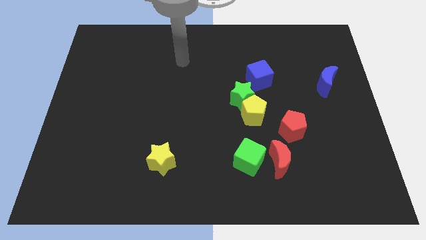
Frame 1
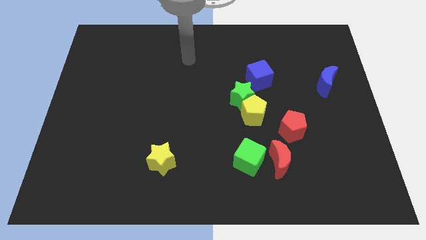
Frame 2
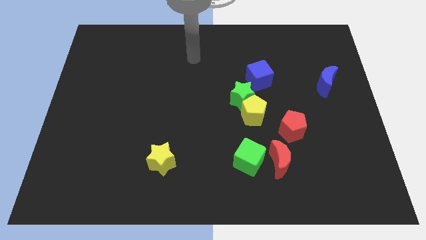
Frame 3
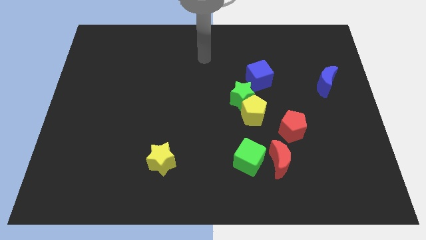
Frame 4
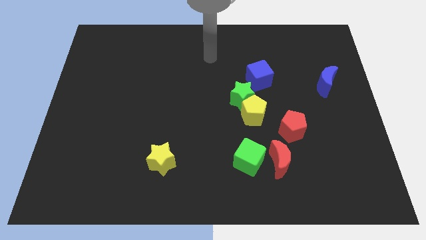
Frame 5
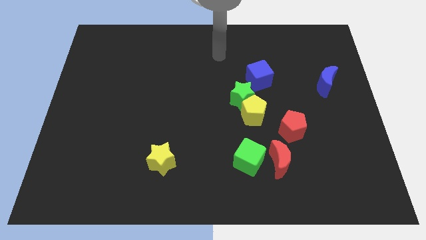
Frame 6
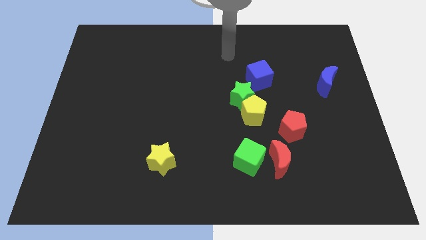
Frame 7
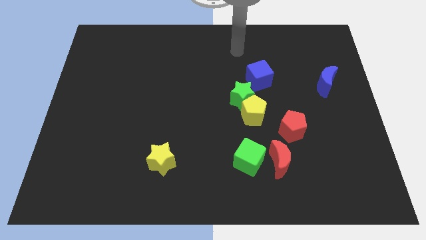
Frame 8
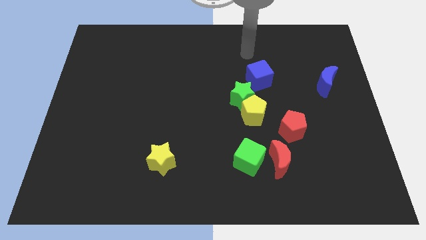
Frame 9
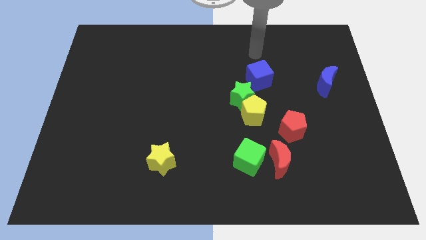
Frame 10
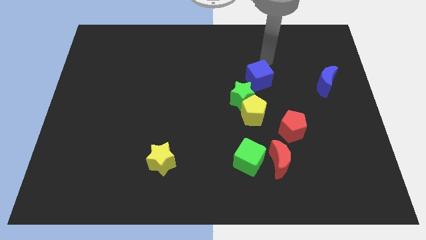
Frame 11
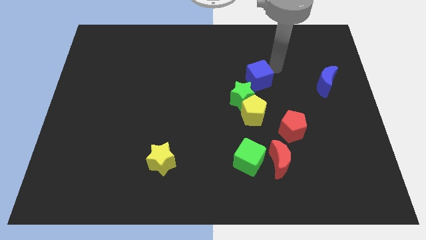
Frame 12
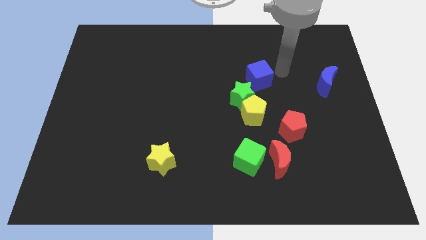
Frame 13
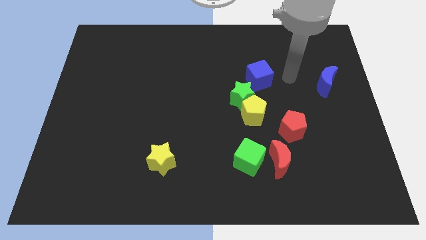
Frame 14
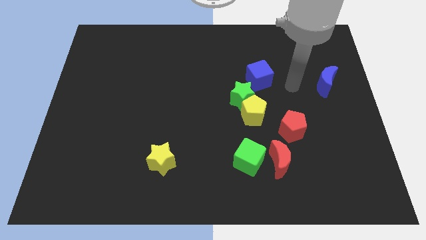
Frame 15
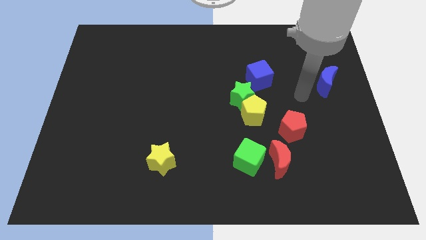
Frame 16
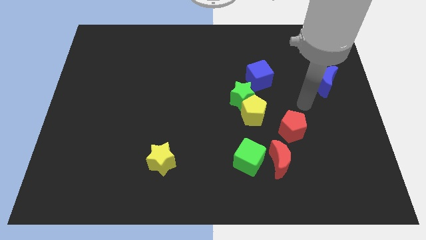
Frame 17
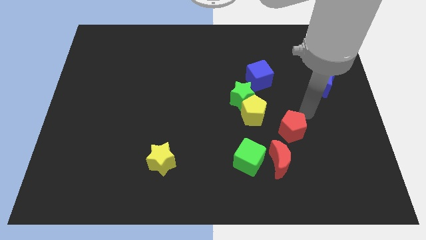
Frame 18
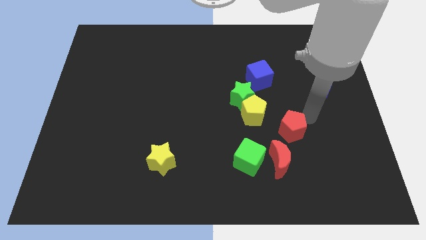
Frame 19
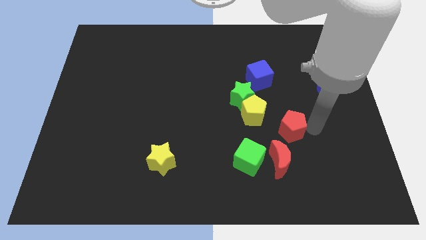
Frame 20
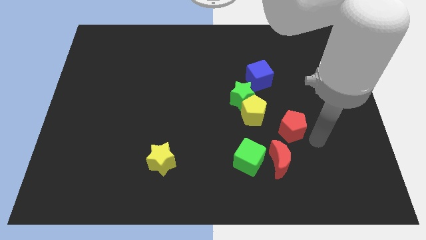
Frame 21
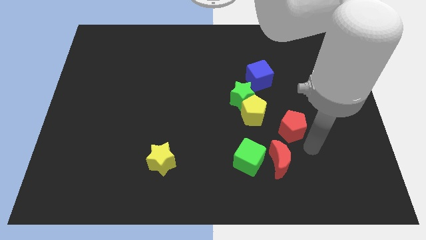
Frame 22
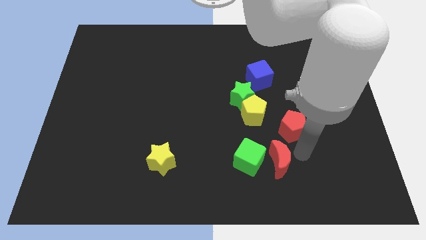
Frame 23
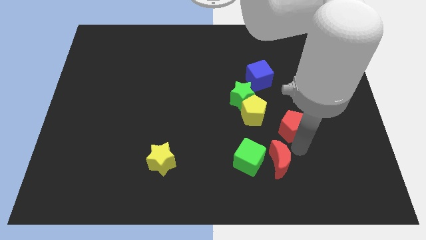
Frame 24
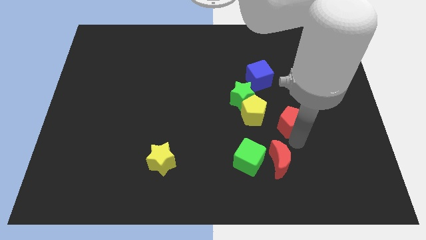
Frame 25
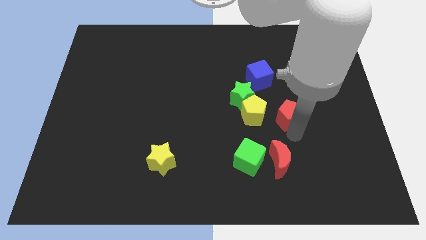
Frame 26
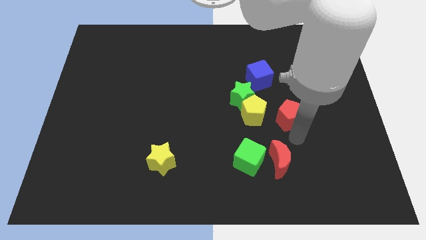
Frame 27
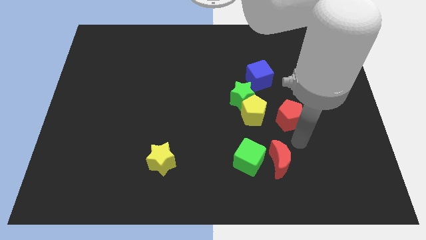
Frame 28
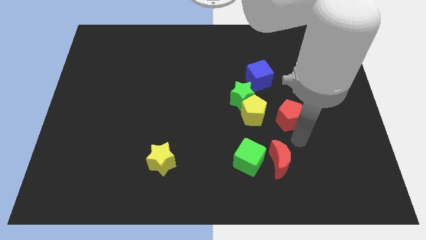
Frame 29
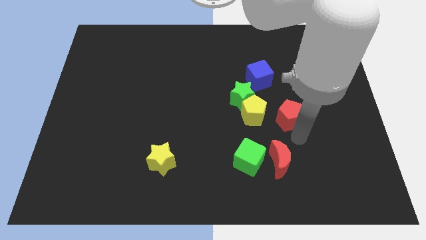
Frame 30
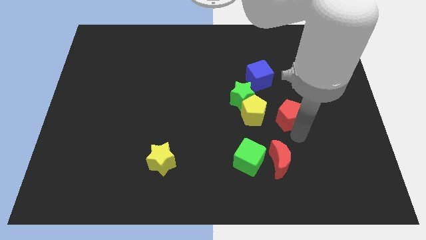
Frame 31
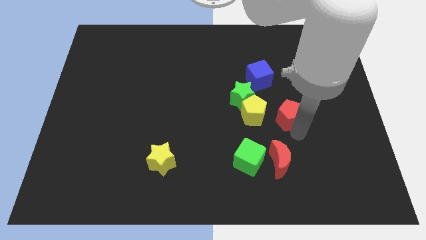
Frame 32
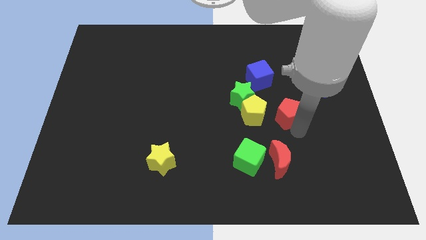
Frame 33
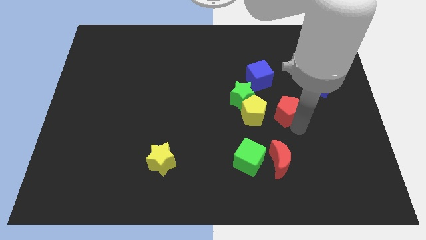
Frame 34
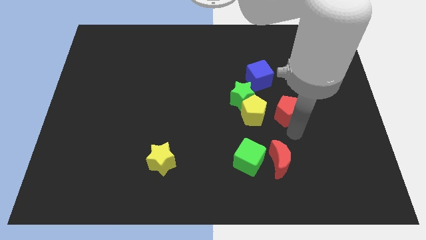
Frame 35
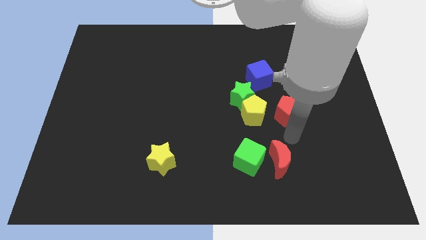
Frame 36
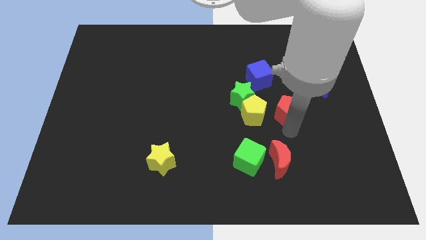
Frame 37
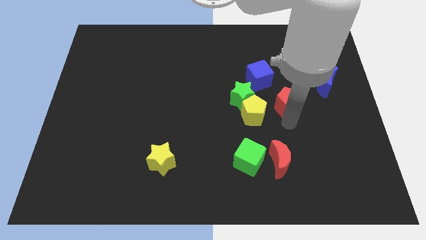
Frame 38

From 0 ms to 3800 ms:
move the red pentagon upwards a bit

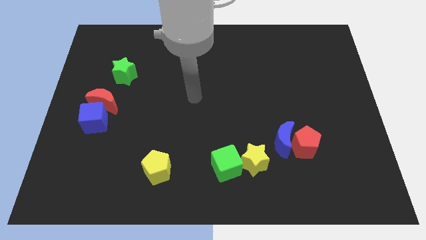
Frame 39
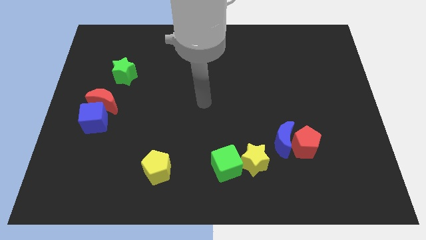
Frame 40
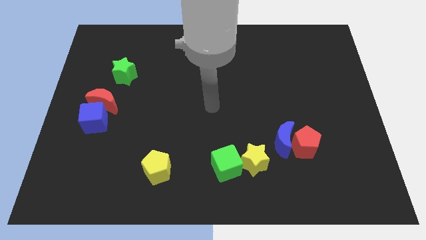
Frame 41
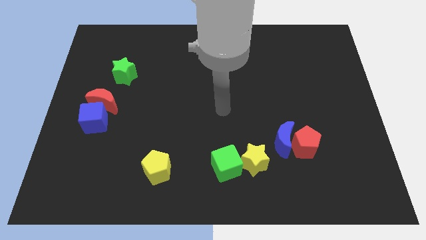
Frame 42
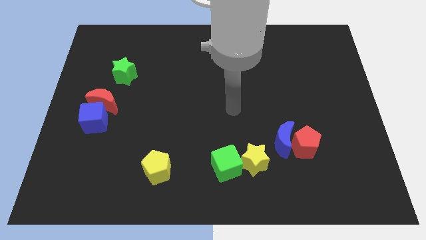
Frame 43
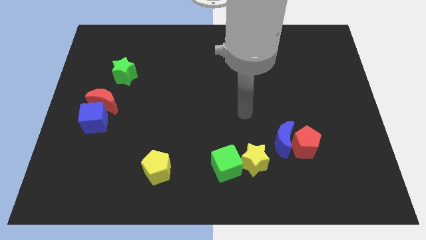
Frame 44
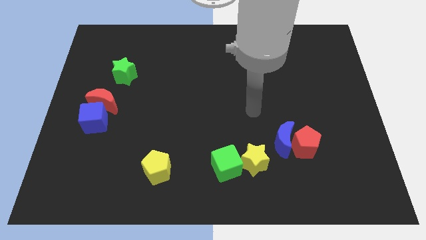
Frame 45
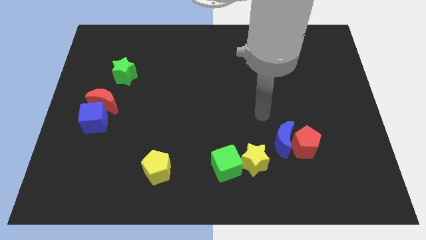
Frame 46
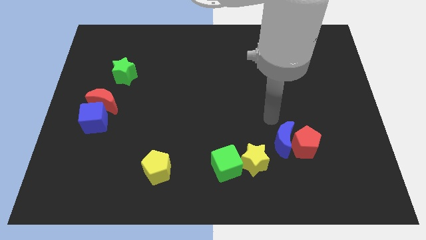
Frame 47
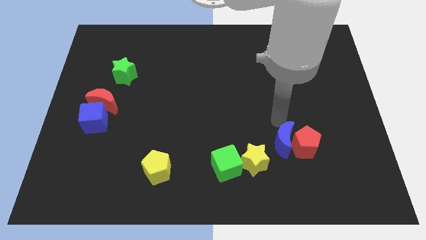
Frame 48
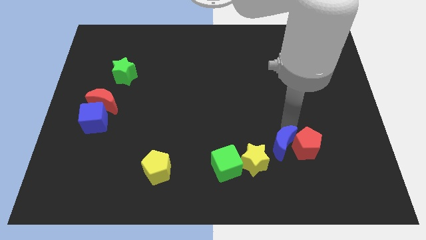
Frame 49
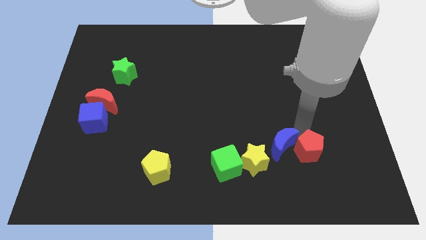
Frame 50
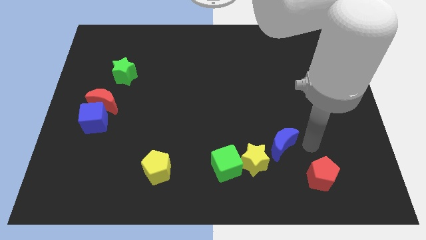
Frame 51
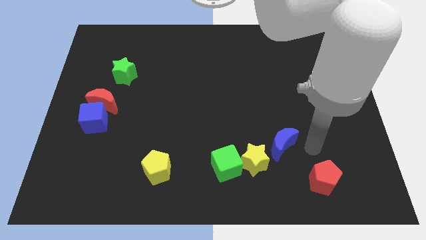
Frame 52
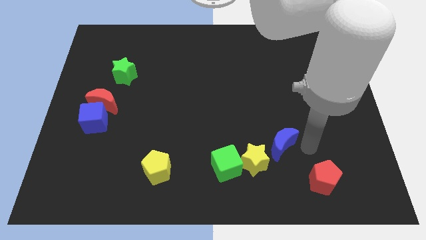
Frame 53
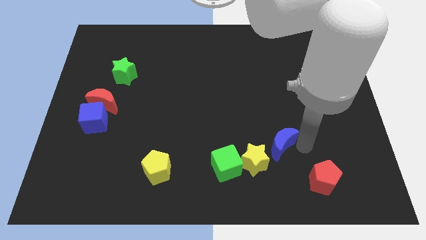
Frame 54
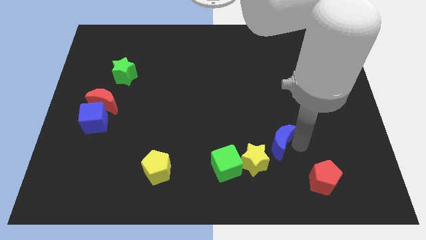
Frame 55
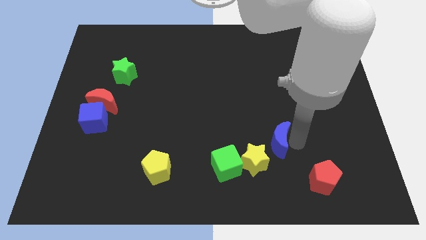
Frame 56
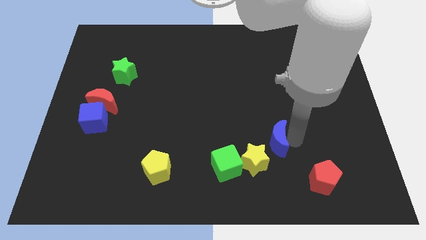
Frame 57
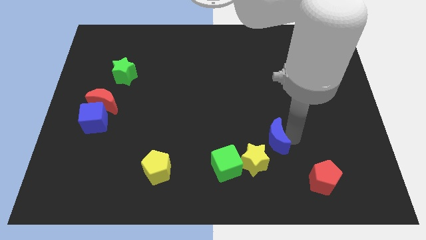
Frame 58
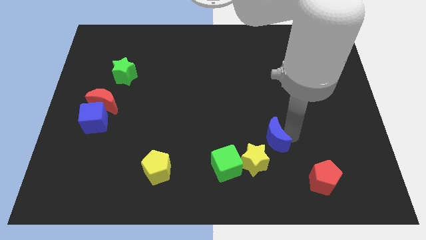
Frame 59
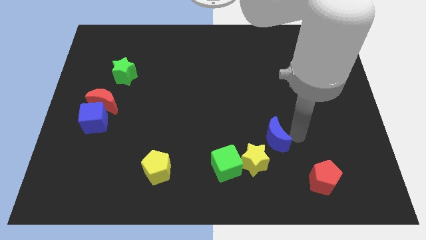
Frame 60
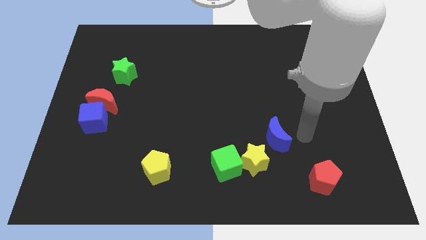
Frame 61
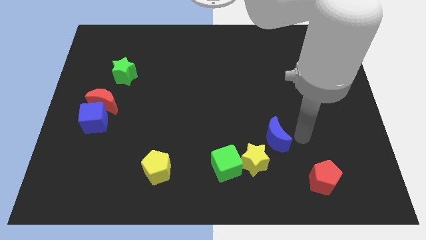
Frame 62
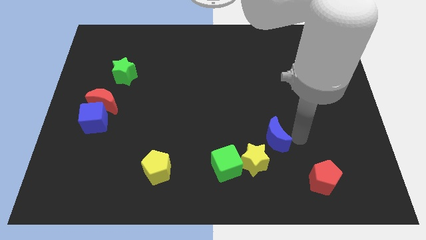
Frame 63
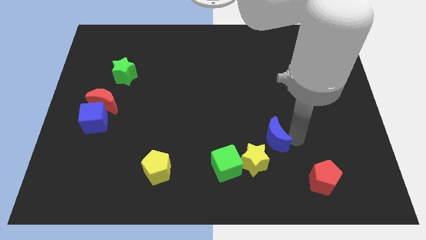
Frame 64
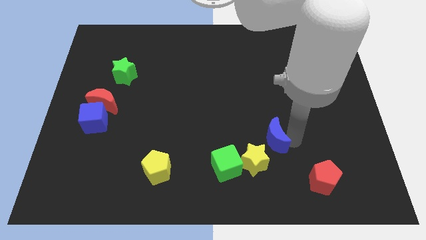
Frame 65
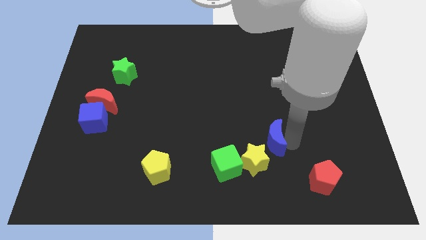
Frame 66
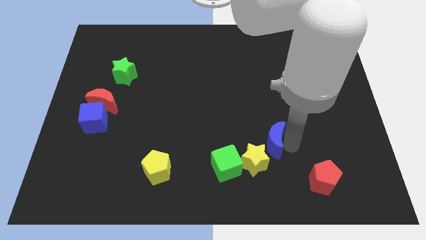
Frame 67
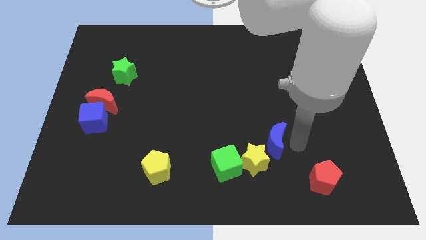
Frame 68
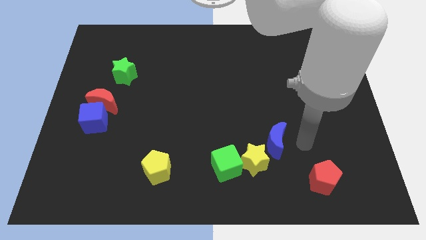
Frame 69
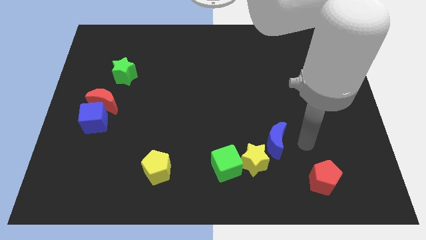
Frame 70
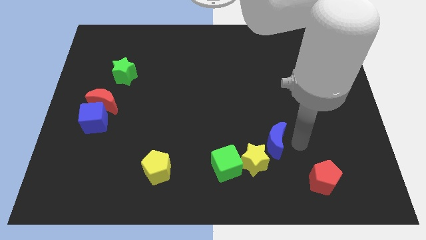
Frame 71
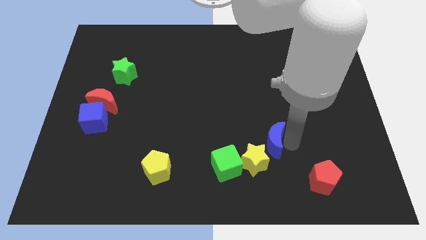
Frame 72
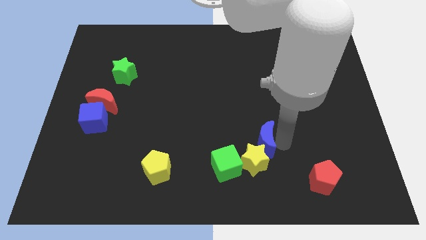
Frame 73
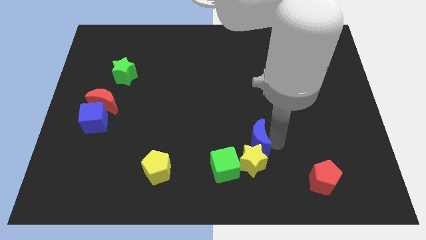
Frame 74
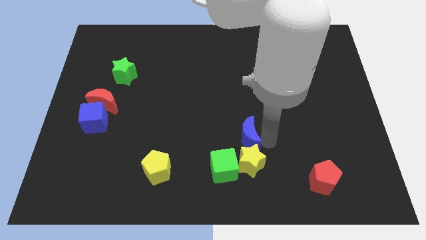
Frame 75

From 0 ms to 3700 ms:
slide the blue moon slightly left

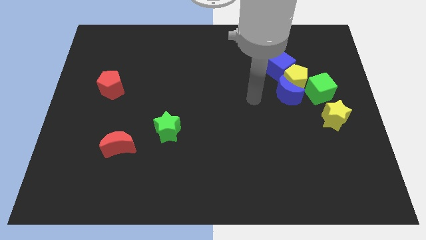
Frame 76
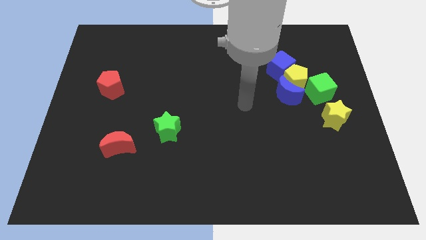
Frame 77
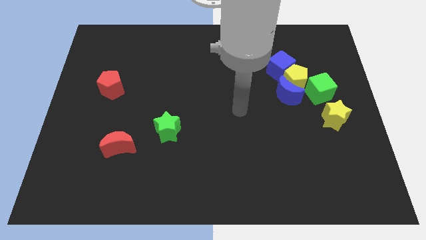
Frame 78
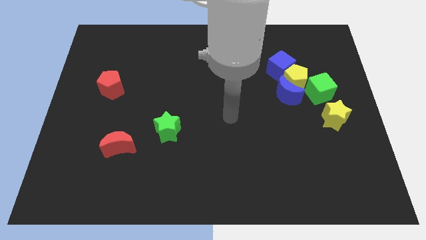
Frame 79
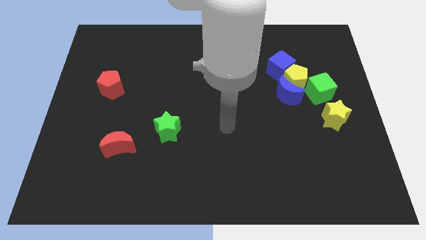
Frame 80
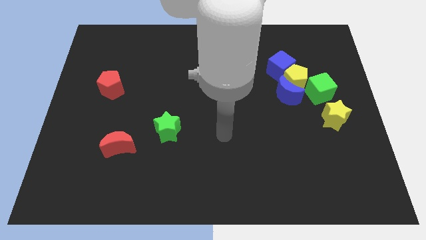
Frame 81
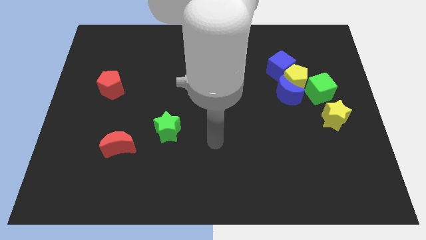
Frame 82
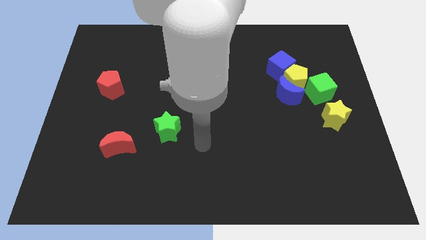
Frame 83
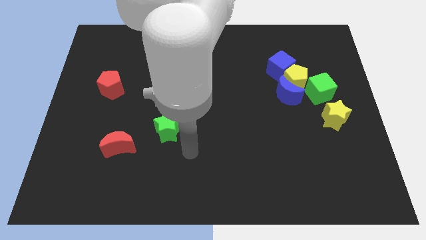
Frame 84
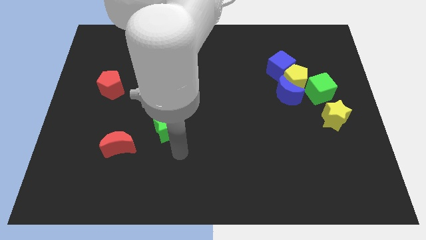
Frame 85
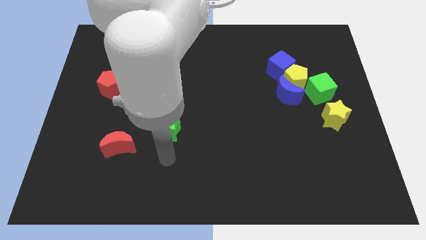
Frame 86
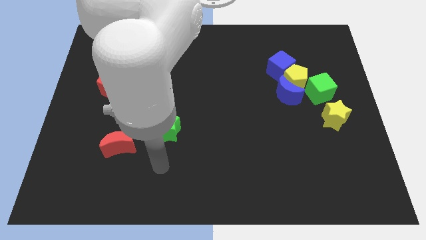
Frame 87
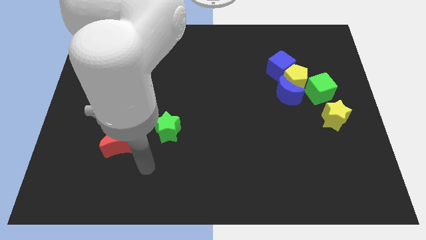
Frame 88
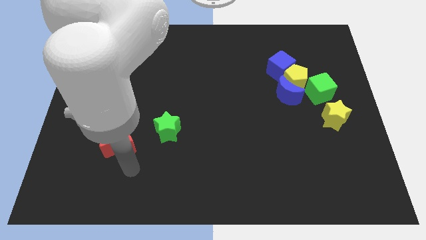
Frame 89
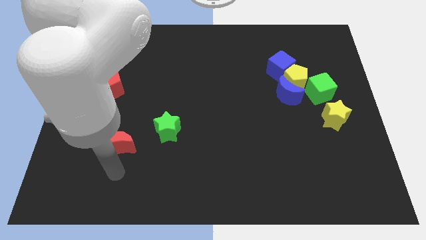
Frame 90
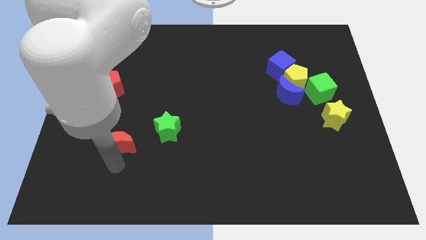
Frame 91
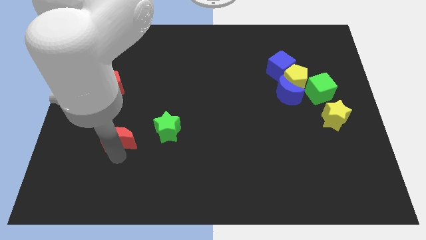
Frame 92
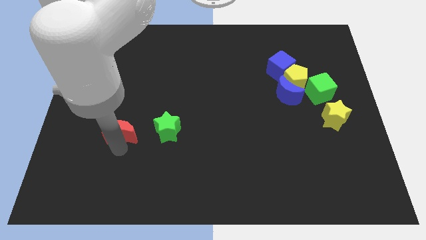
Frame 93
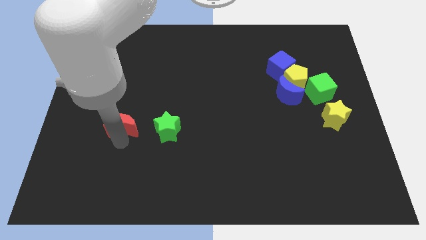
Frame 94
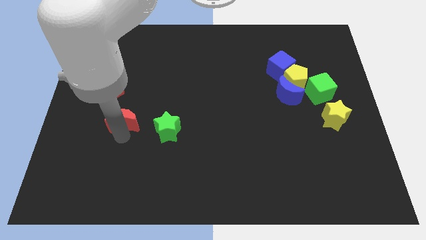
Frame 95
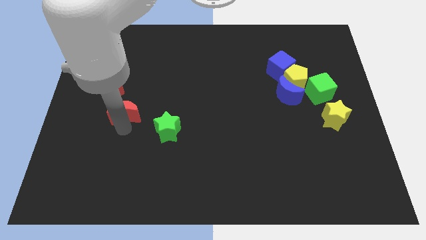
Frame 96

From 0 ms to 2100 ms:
move the red moon upwards a little bit
